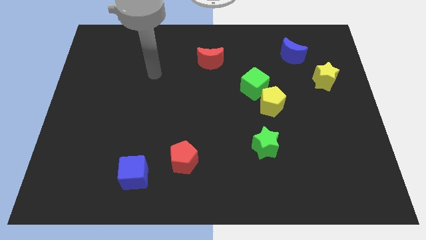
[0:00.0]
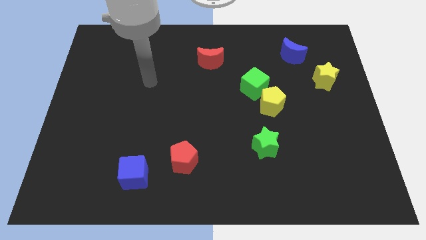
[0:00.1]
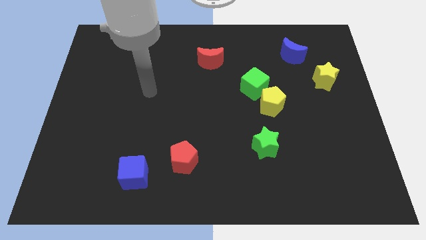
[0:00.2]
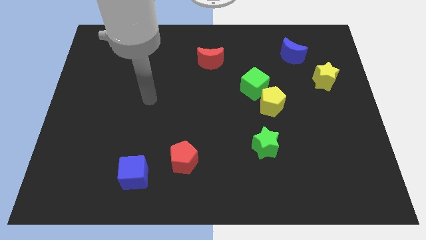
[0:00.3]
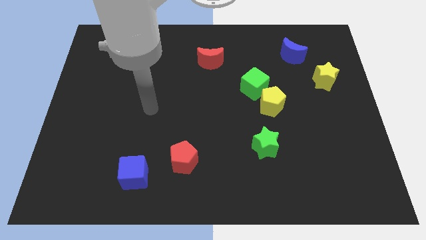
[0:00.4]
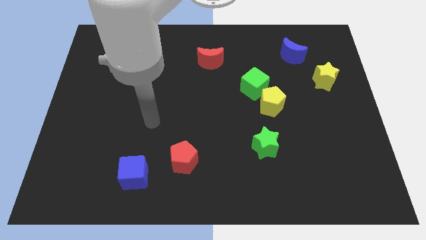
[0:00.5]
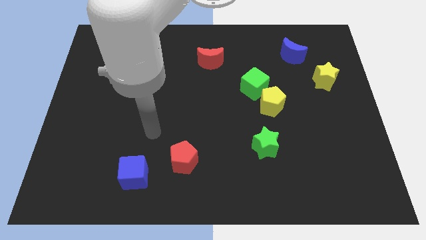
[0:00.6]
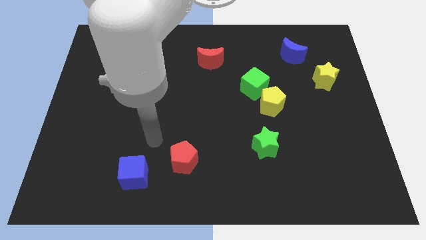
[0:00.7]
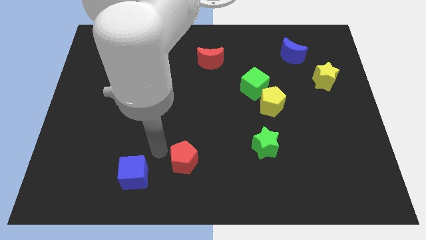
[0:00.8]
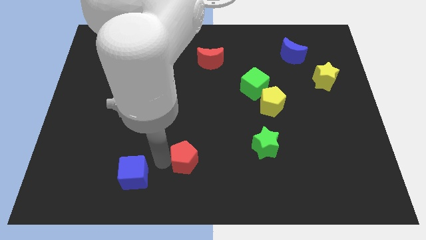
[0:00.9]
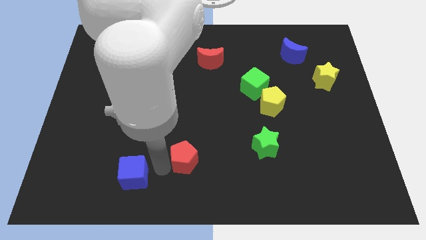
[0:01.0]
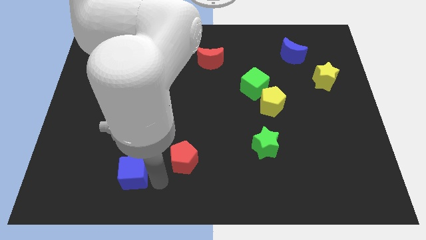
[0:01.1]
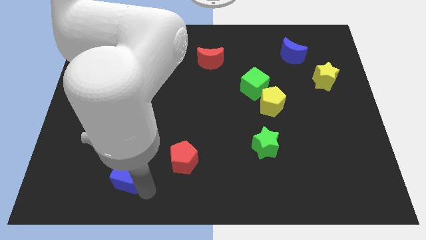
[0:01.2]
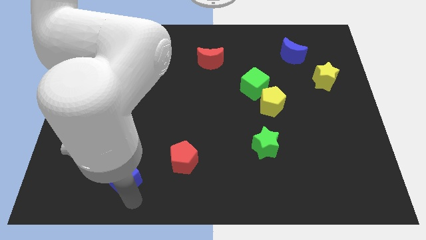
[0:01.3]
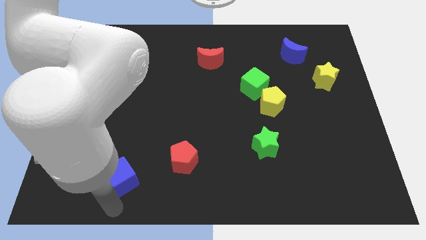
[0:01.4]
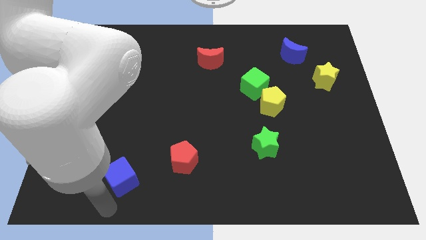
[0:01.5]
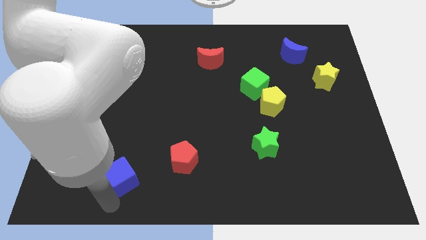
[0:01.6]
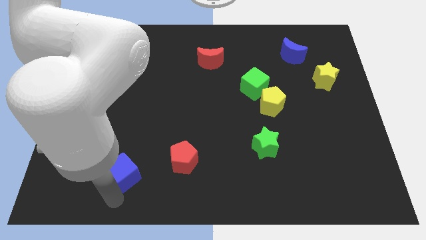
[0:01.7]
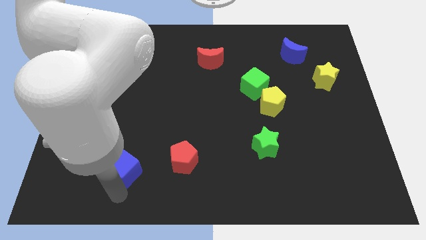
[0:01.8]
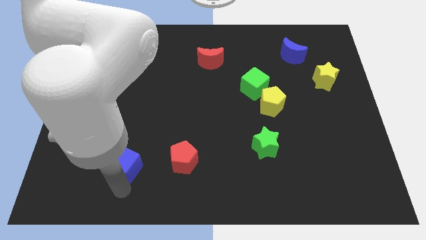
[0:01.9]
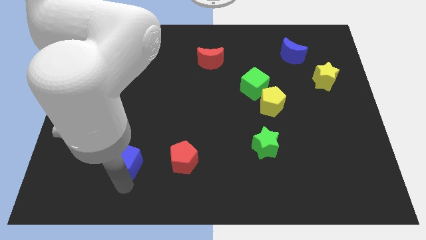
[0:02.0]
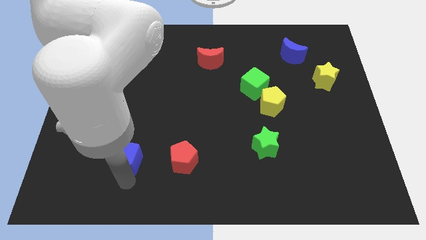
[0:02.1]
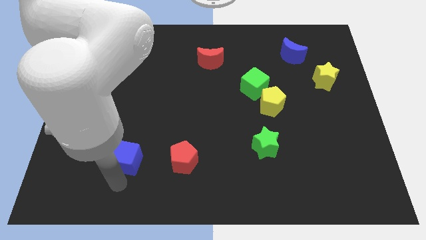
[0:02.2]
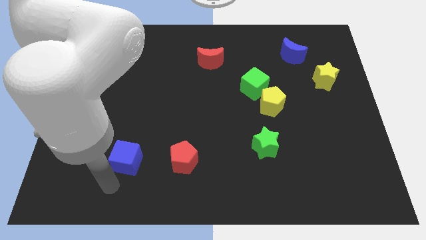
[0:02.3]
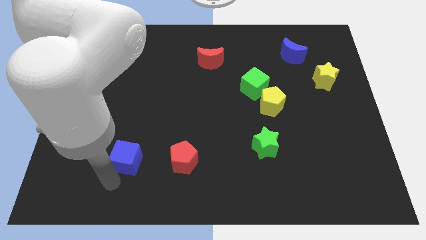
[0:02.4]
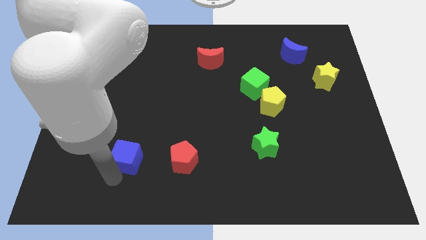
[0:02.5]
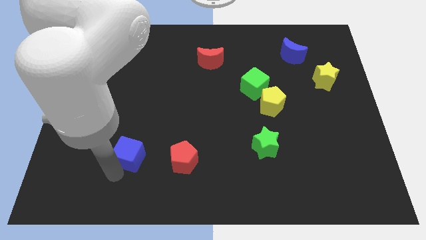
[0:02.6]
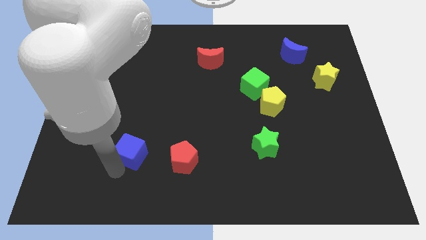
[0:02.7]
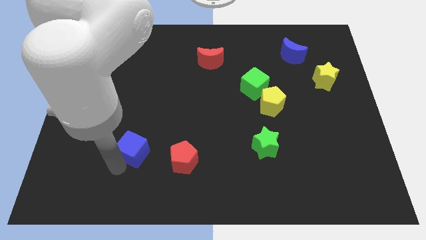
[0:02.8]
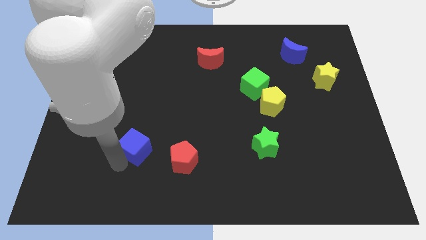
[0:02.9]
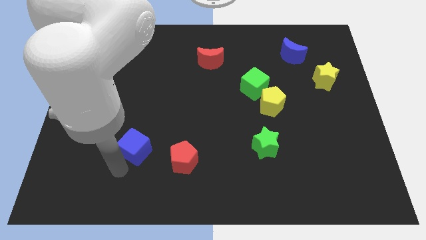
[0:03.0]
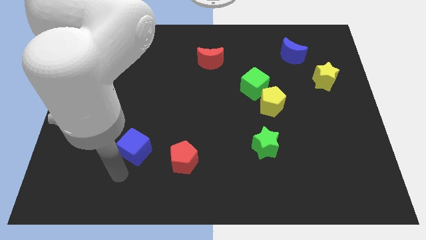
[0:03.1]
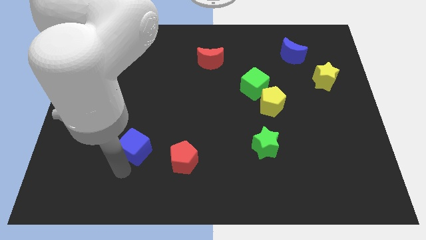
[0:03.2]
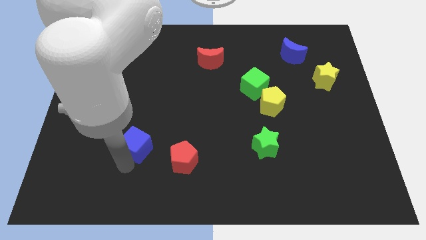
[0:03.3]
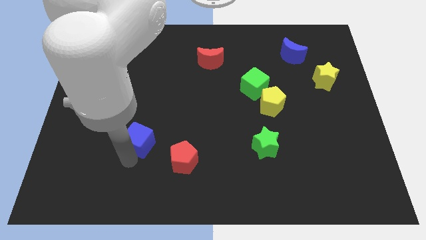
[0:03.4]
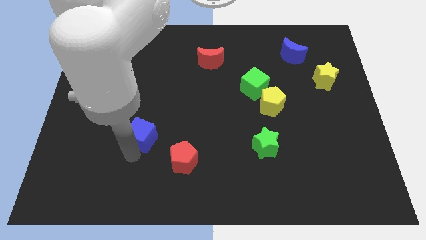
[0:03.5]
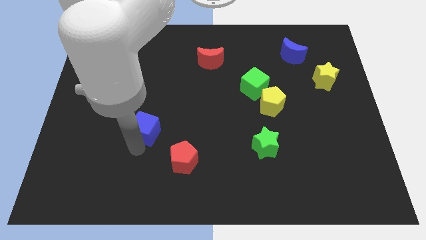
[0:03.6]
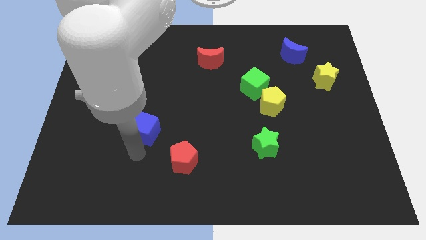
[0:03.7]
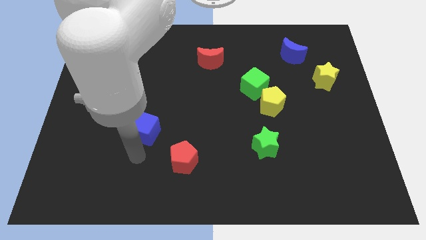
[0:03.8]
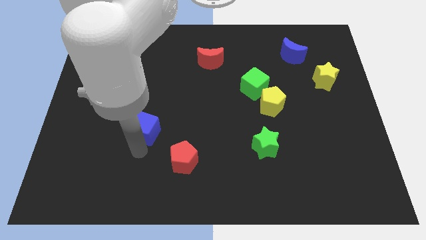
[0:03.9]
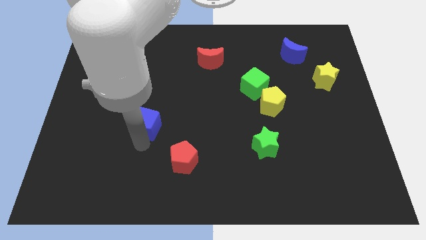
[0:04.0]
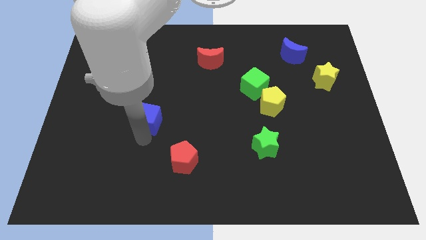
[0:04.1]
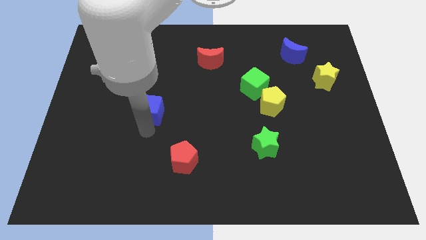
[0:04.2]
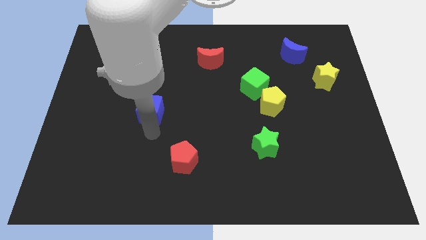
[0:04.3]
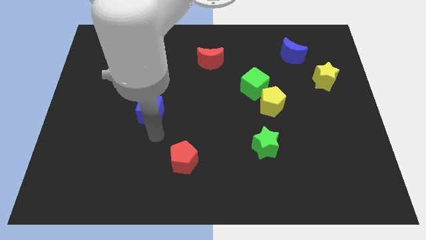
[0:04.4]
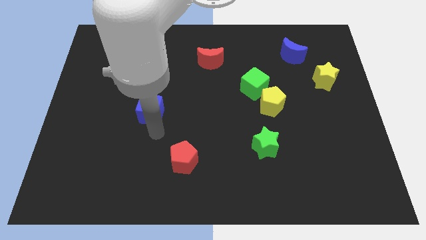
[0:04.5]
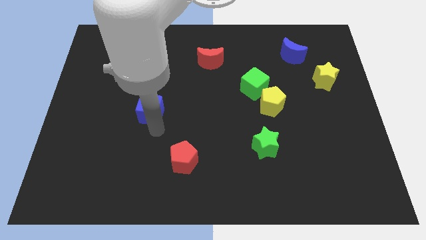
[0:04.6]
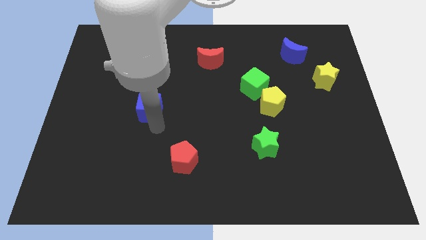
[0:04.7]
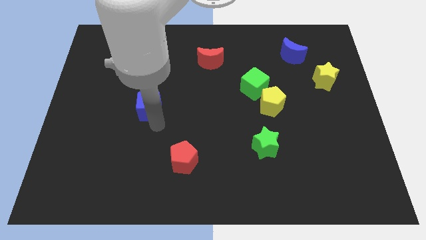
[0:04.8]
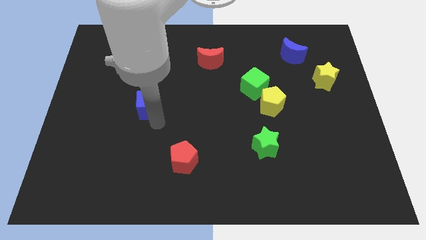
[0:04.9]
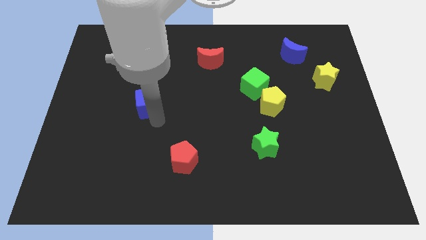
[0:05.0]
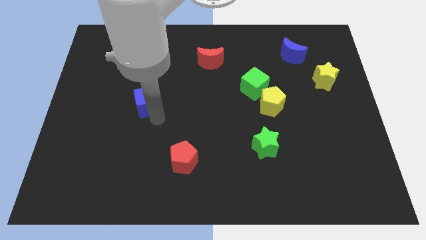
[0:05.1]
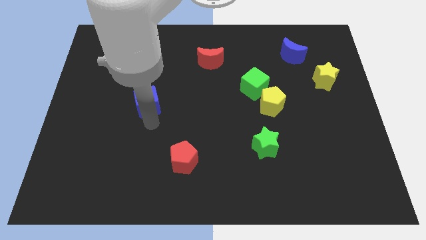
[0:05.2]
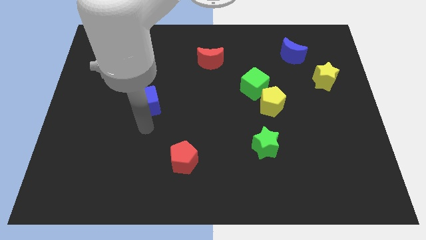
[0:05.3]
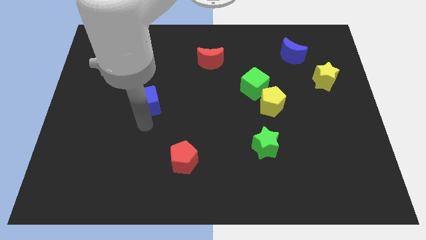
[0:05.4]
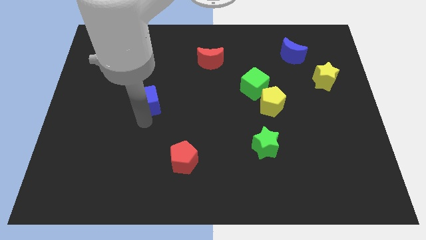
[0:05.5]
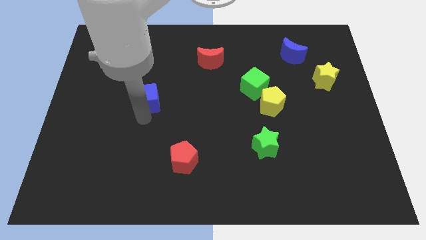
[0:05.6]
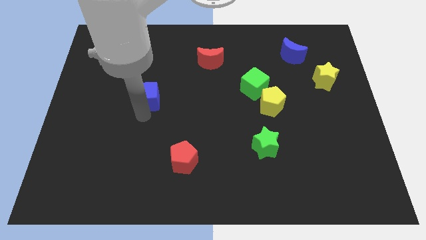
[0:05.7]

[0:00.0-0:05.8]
slide the blue cube upwards

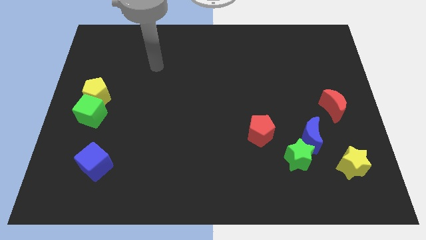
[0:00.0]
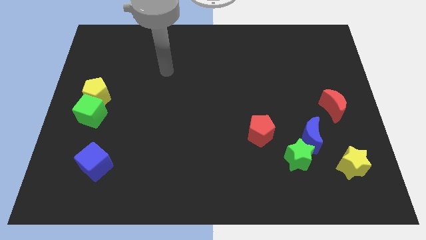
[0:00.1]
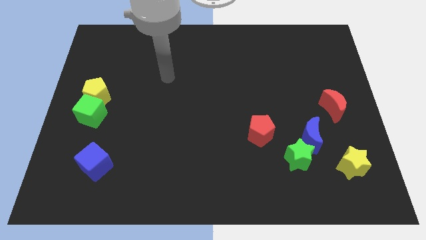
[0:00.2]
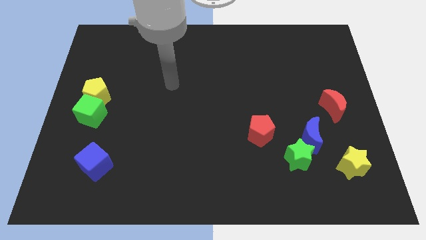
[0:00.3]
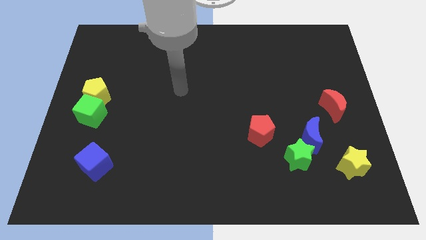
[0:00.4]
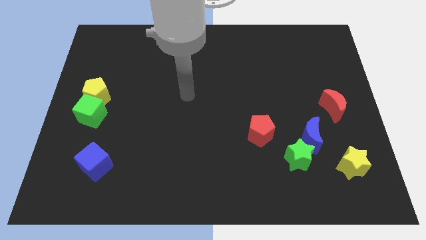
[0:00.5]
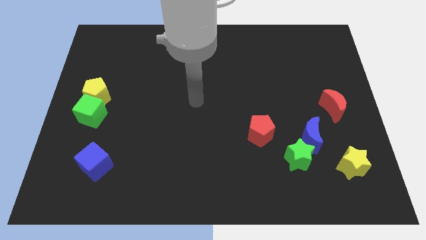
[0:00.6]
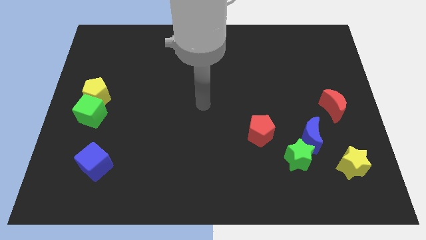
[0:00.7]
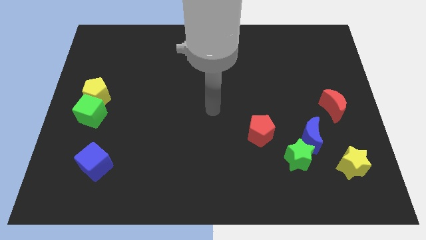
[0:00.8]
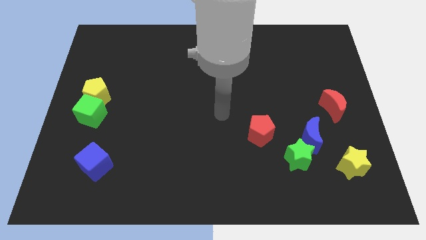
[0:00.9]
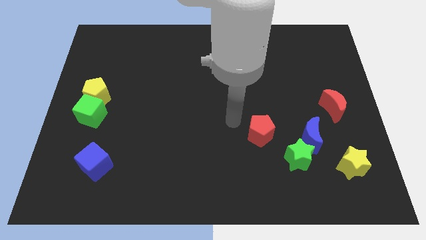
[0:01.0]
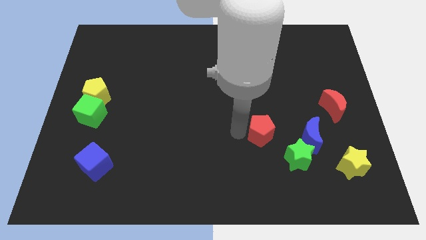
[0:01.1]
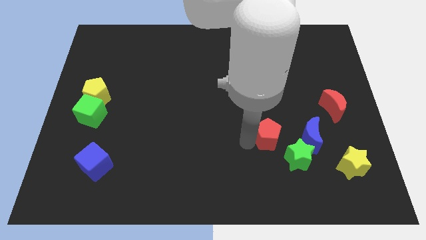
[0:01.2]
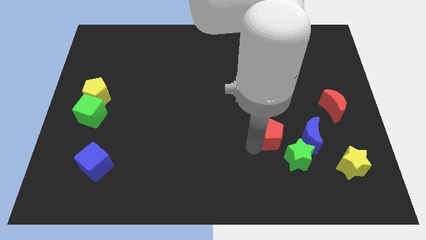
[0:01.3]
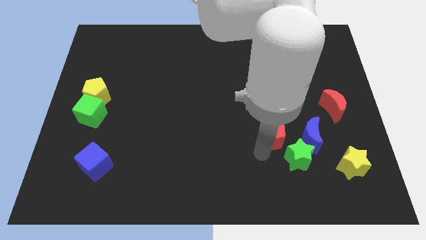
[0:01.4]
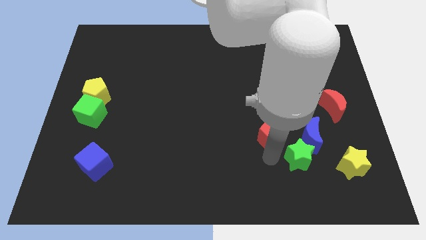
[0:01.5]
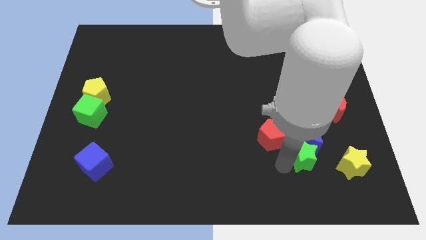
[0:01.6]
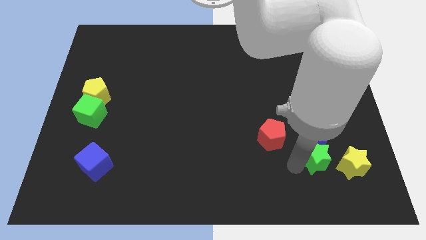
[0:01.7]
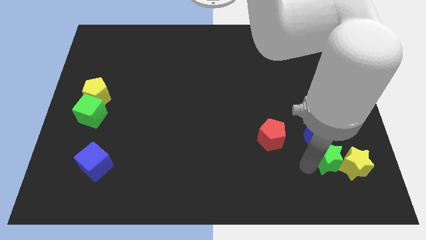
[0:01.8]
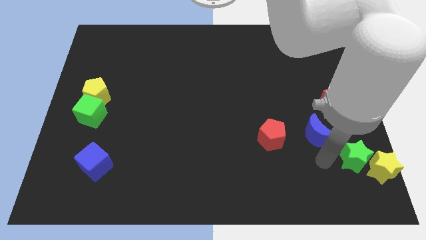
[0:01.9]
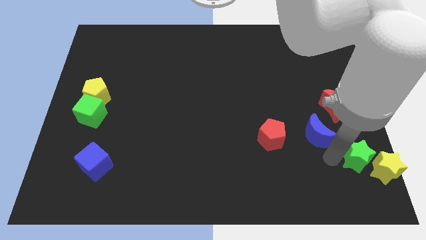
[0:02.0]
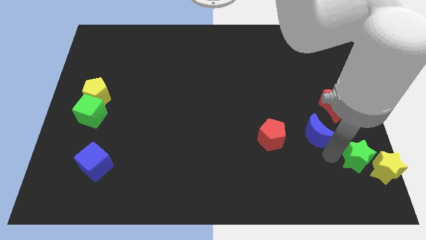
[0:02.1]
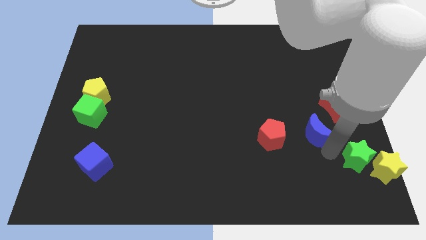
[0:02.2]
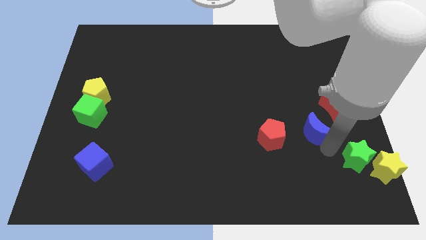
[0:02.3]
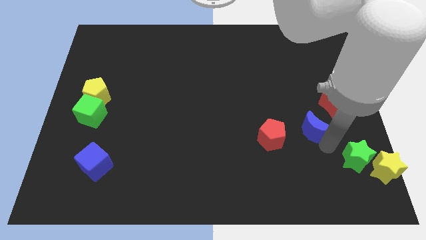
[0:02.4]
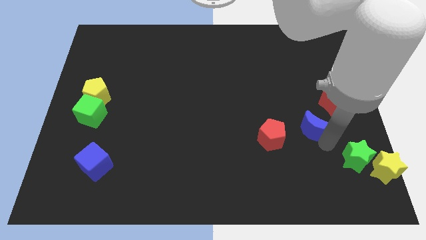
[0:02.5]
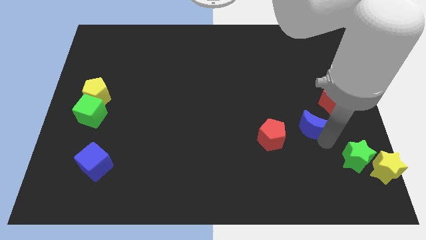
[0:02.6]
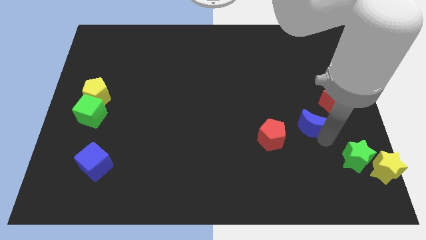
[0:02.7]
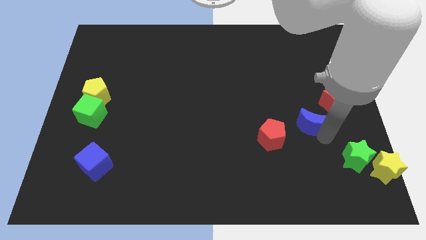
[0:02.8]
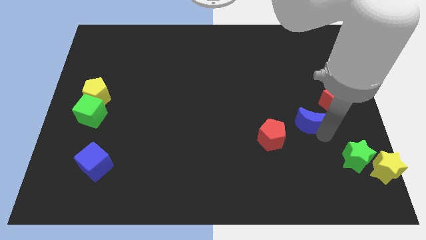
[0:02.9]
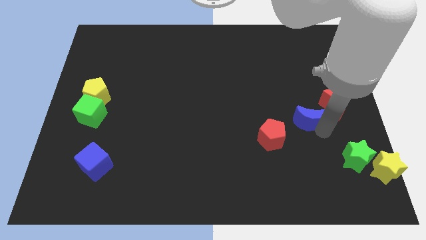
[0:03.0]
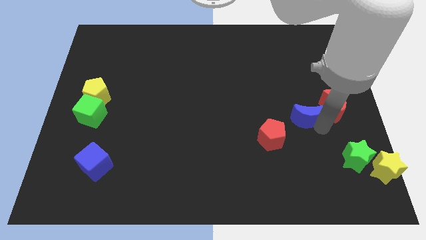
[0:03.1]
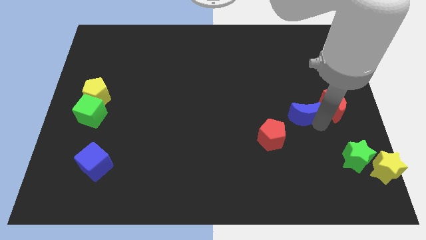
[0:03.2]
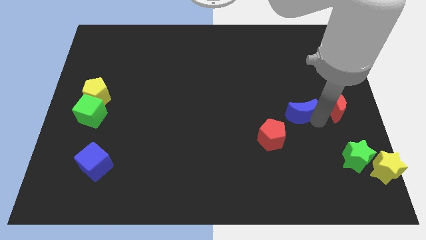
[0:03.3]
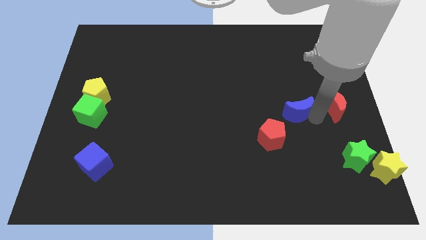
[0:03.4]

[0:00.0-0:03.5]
move the blue moon upwards a bit
